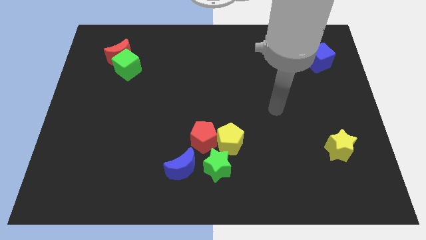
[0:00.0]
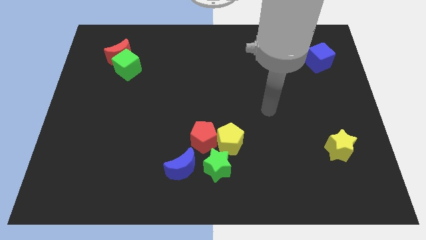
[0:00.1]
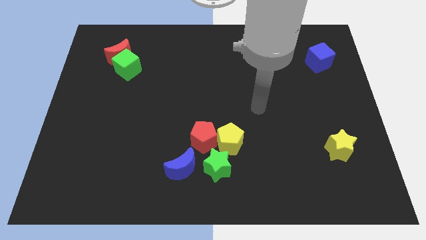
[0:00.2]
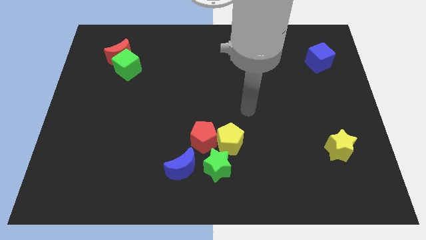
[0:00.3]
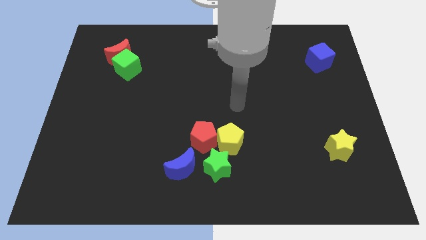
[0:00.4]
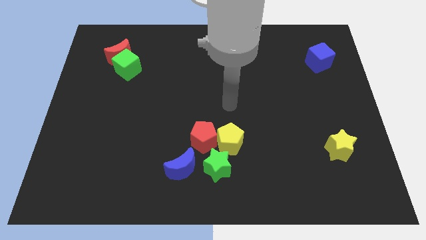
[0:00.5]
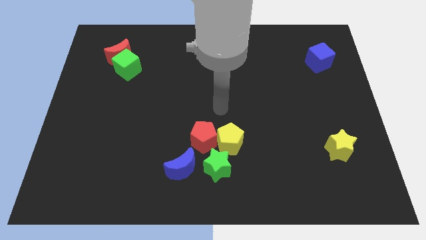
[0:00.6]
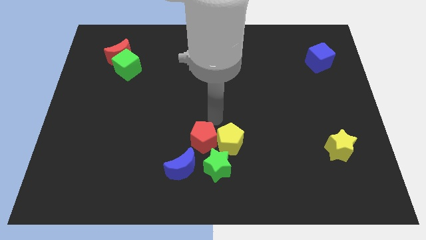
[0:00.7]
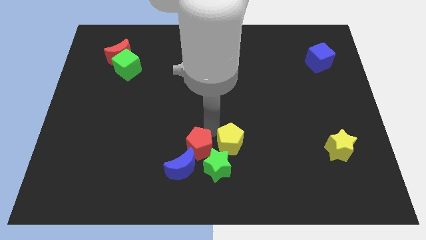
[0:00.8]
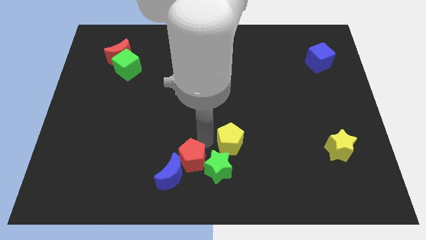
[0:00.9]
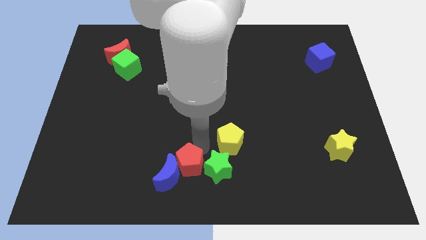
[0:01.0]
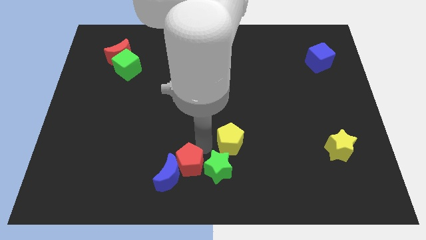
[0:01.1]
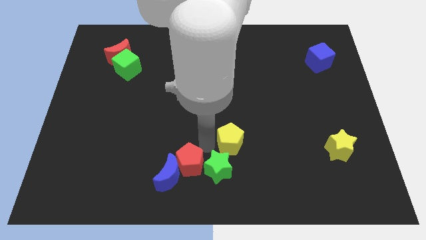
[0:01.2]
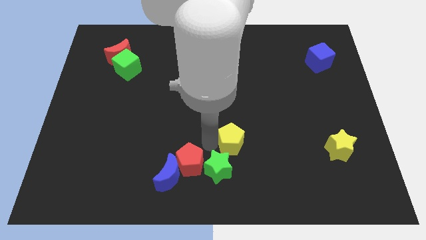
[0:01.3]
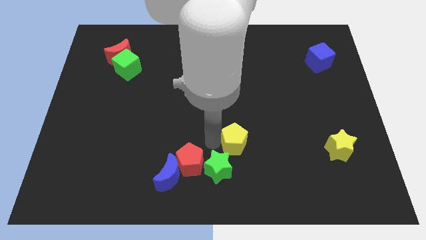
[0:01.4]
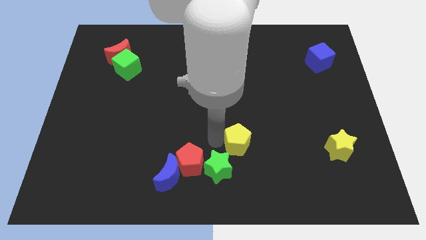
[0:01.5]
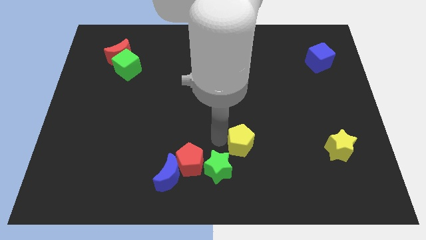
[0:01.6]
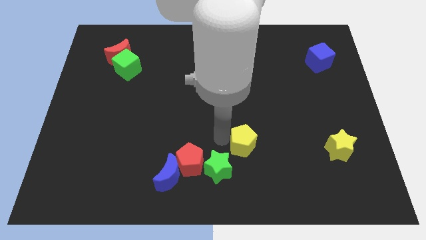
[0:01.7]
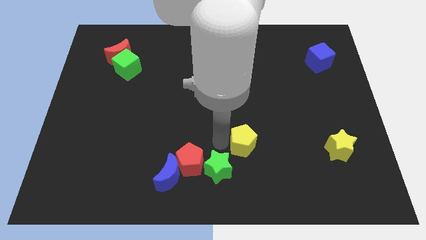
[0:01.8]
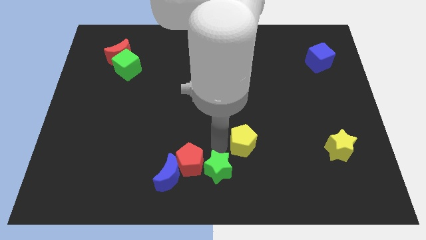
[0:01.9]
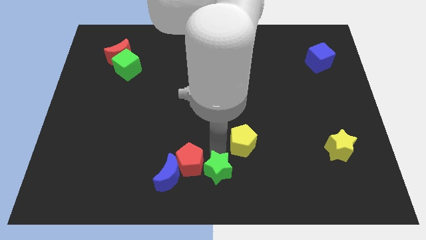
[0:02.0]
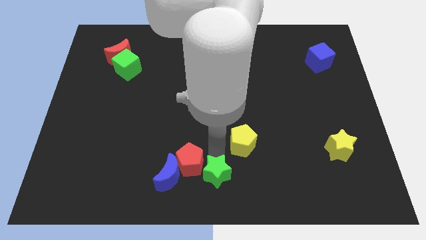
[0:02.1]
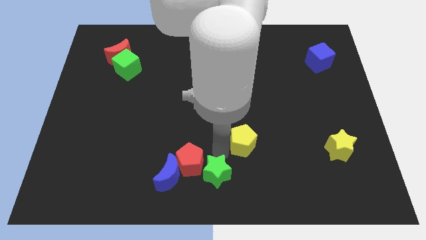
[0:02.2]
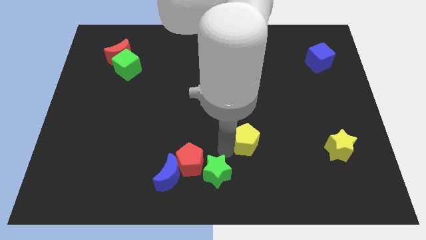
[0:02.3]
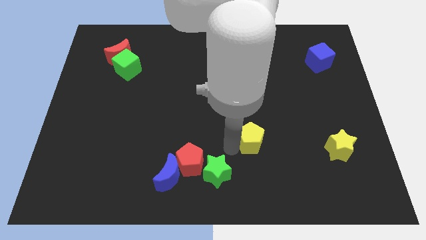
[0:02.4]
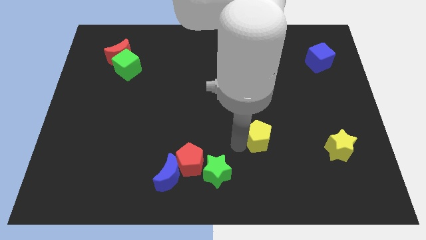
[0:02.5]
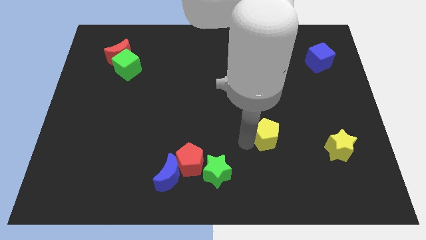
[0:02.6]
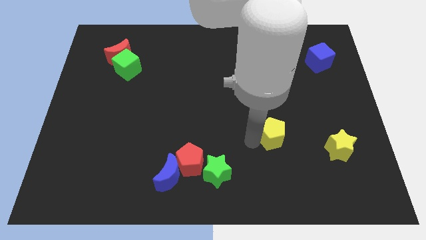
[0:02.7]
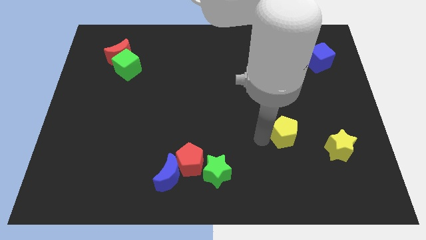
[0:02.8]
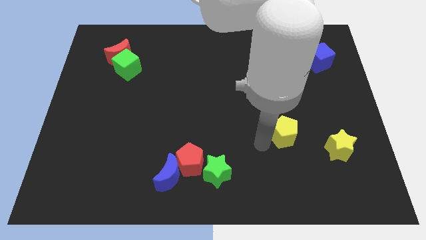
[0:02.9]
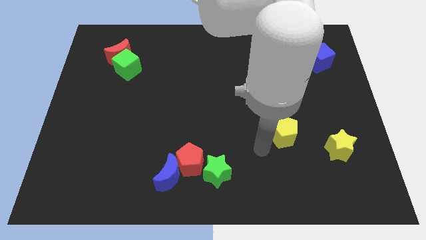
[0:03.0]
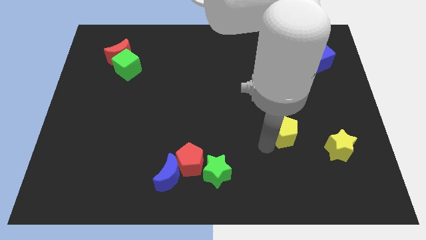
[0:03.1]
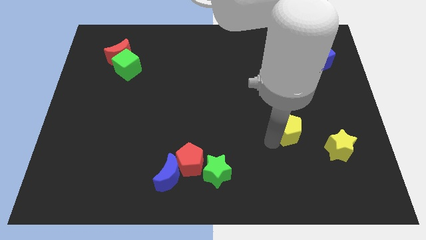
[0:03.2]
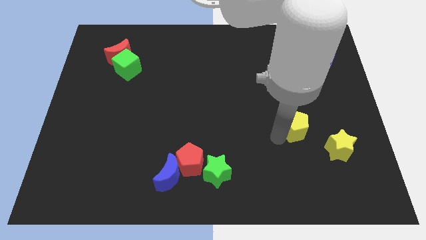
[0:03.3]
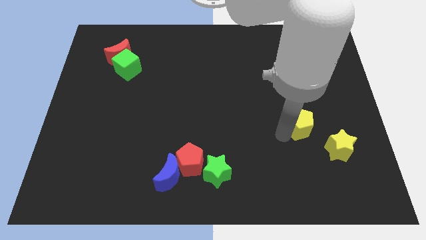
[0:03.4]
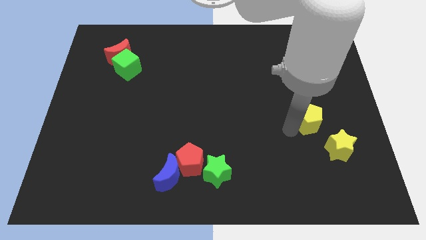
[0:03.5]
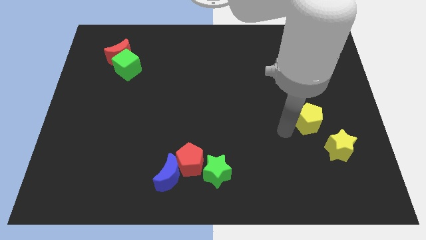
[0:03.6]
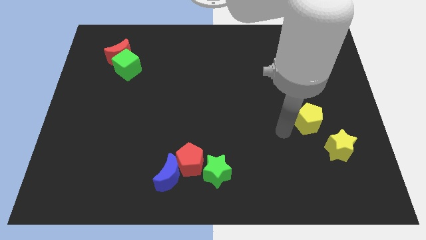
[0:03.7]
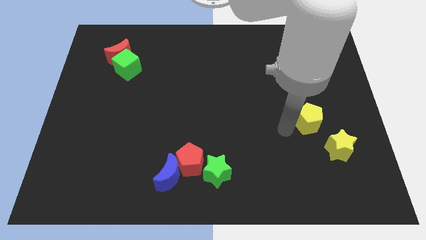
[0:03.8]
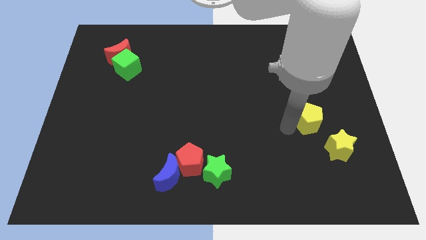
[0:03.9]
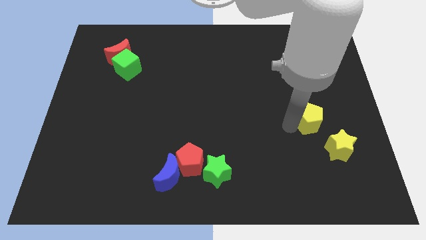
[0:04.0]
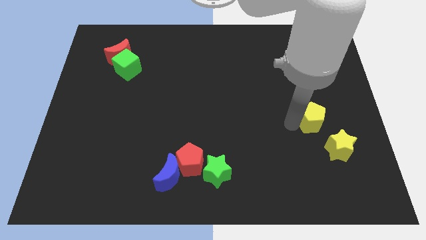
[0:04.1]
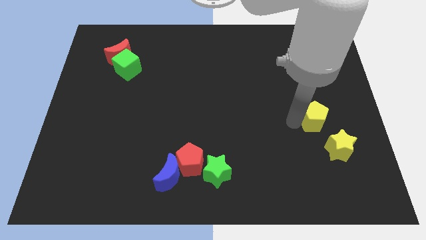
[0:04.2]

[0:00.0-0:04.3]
put the yellow pentagon above the yellow star

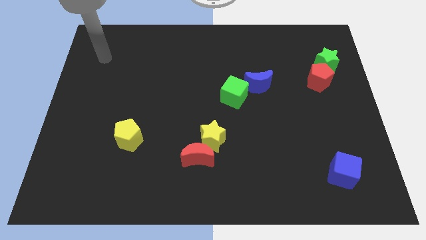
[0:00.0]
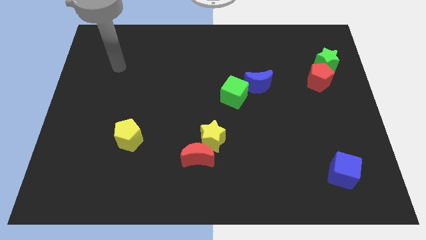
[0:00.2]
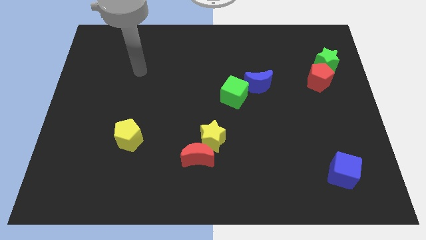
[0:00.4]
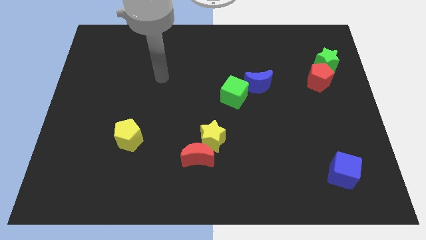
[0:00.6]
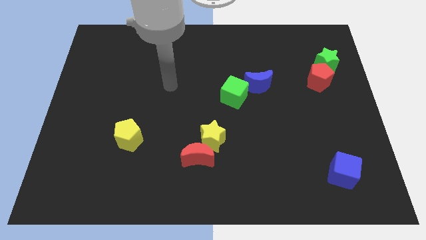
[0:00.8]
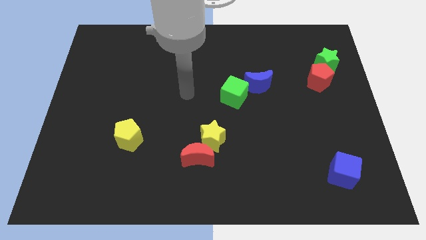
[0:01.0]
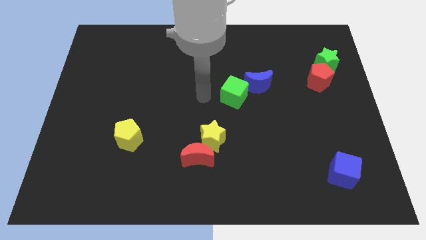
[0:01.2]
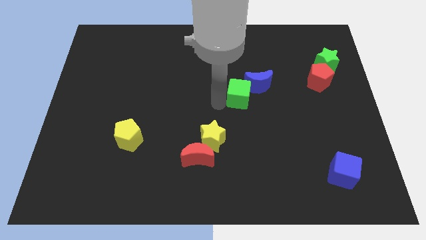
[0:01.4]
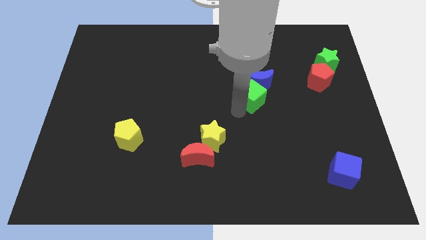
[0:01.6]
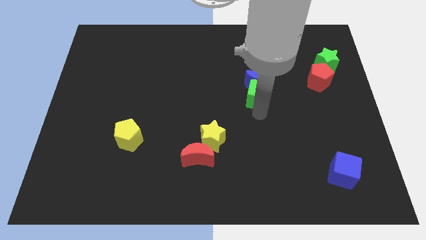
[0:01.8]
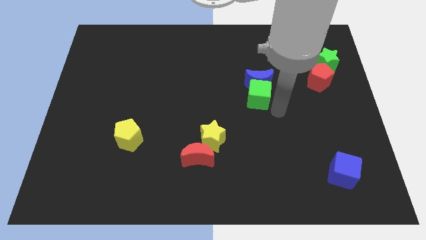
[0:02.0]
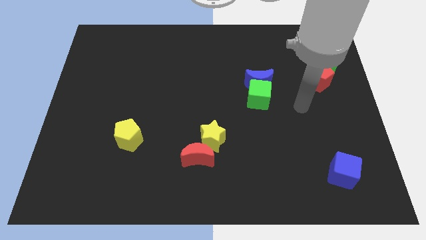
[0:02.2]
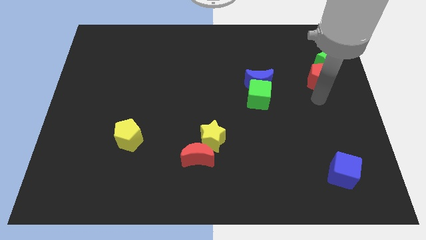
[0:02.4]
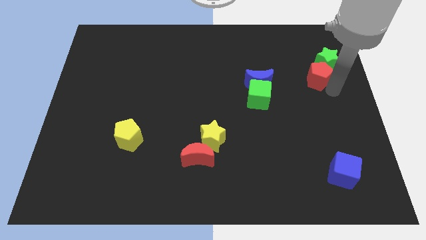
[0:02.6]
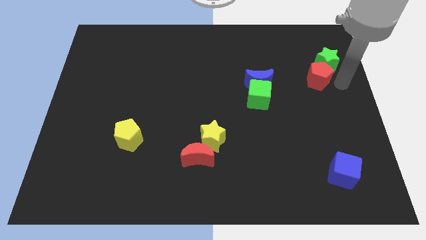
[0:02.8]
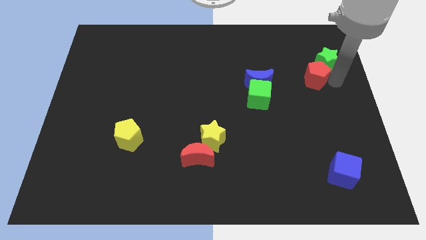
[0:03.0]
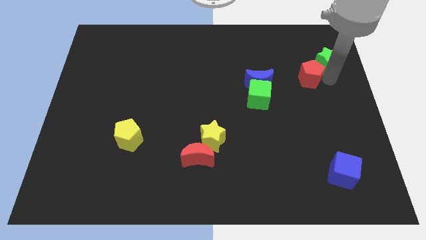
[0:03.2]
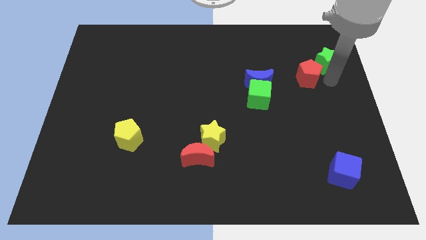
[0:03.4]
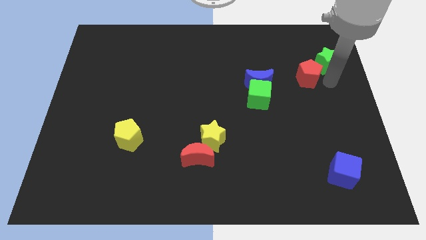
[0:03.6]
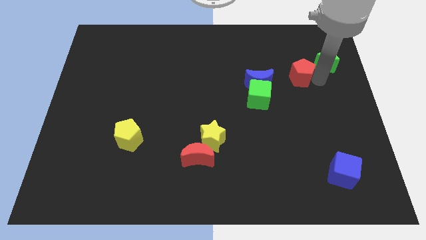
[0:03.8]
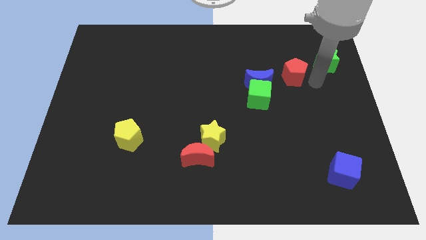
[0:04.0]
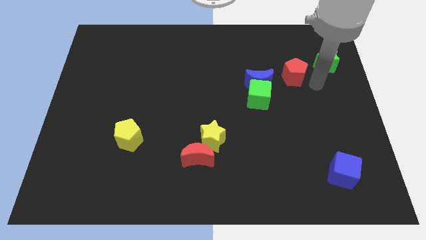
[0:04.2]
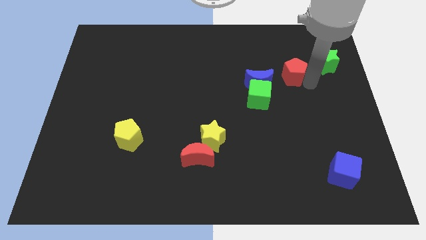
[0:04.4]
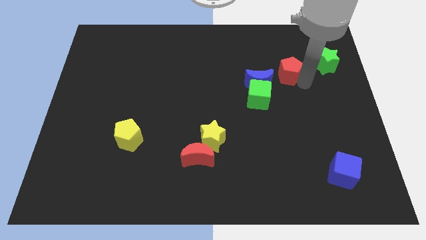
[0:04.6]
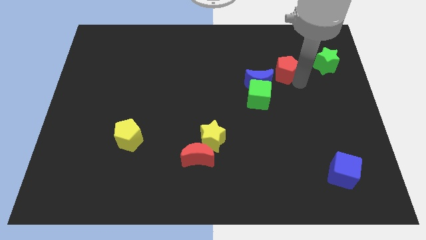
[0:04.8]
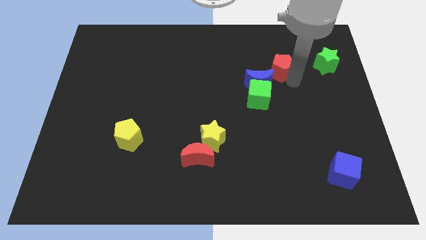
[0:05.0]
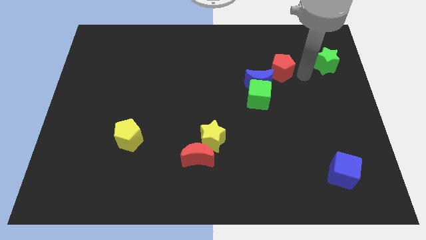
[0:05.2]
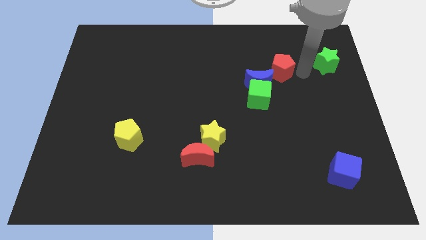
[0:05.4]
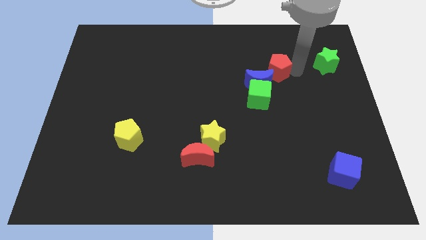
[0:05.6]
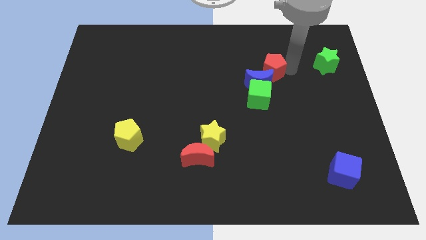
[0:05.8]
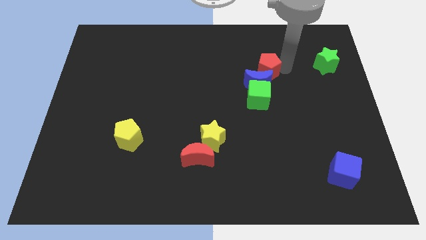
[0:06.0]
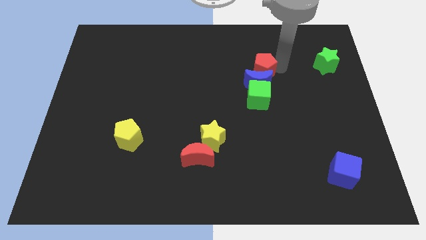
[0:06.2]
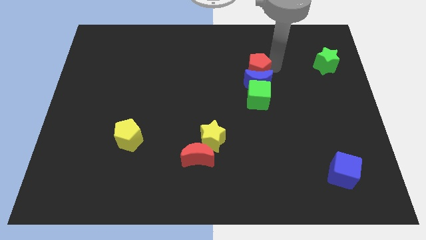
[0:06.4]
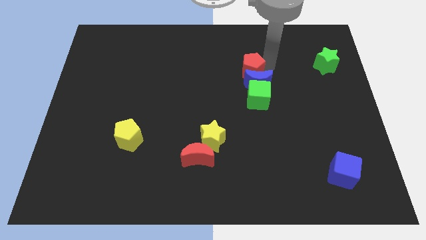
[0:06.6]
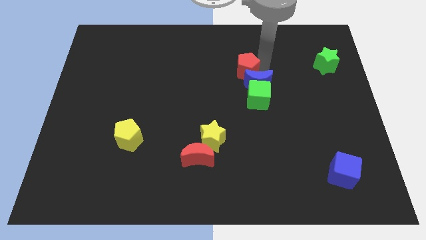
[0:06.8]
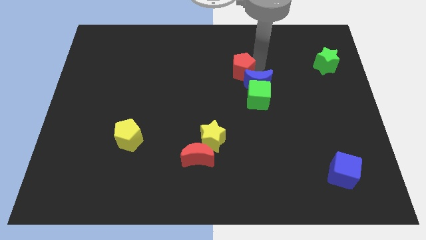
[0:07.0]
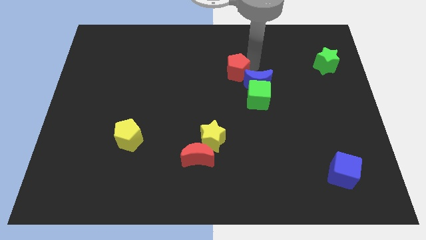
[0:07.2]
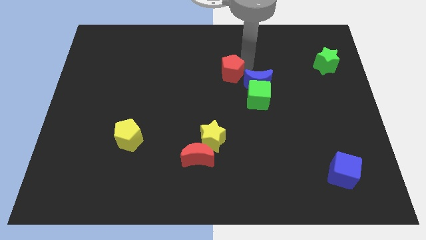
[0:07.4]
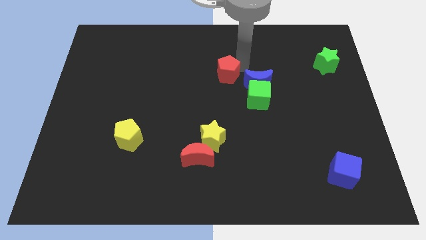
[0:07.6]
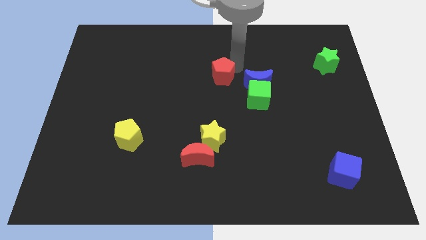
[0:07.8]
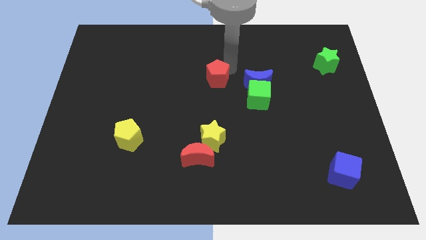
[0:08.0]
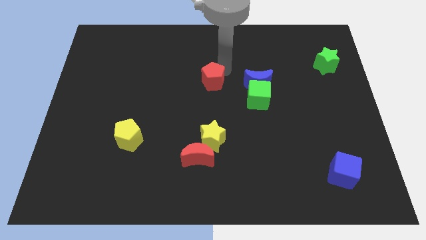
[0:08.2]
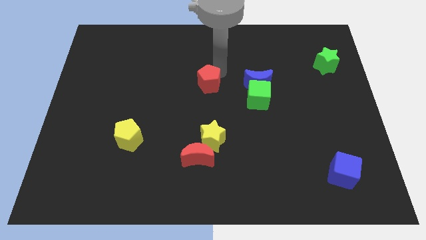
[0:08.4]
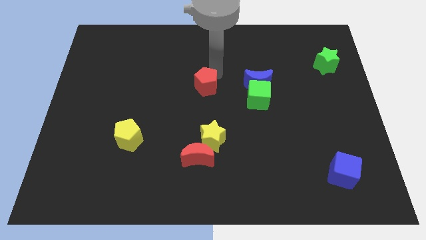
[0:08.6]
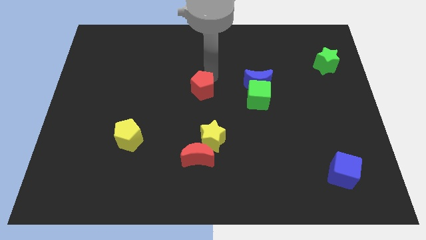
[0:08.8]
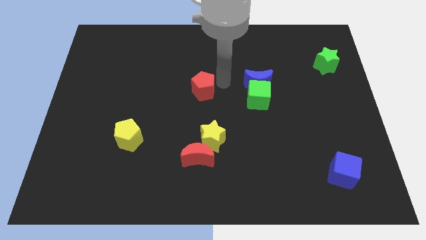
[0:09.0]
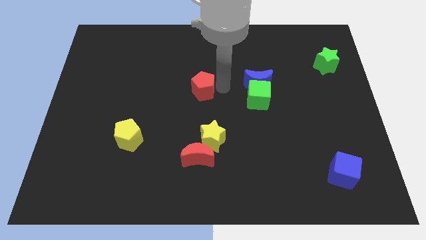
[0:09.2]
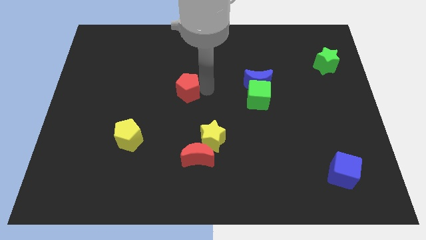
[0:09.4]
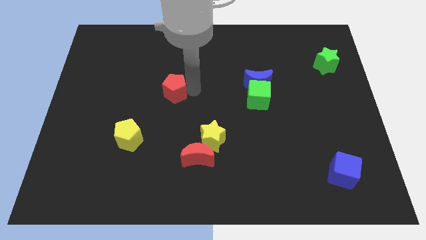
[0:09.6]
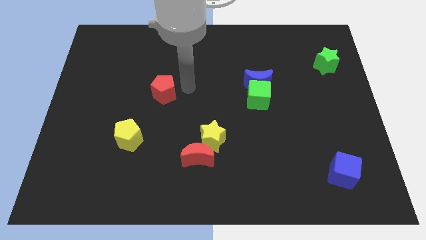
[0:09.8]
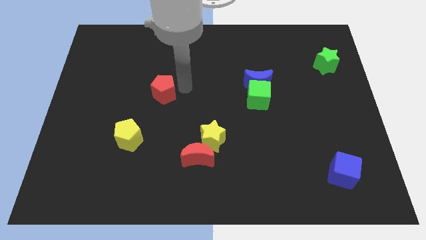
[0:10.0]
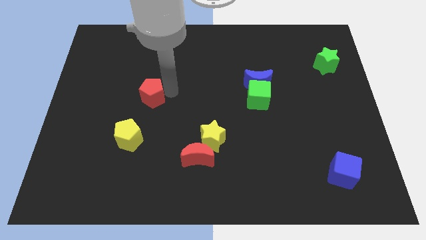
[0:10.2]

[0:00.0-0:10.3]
move the red pentagon to the top of the yellow pentagon
